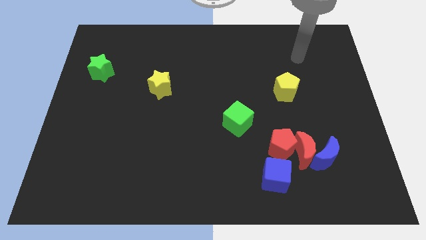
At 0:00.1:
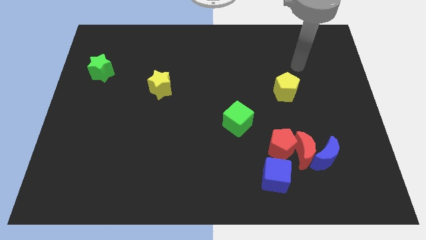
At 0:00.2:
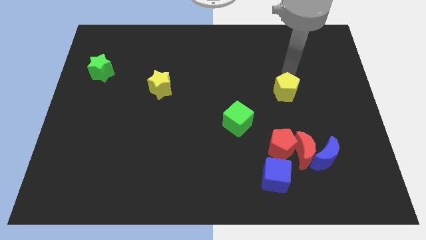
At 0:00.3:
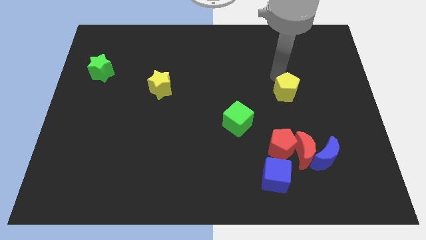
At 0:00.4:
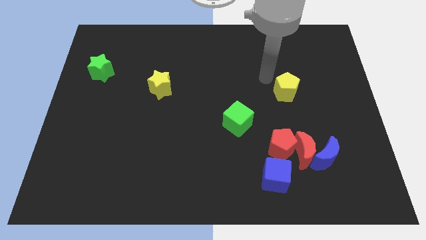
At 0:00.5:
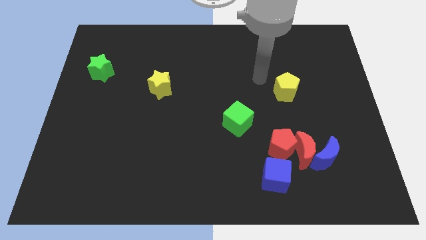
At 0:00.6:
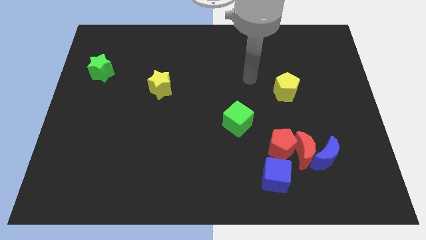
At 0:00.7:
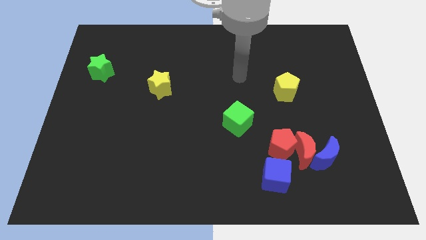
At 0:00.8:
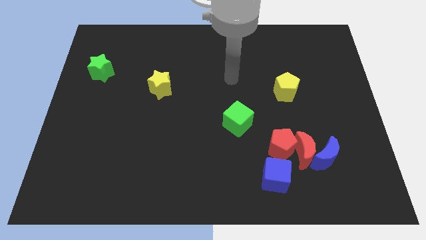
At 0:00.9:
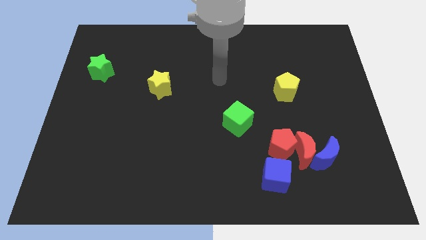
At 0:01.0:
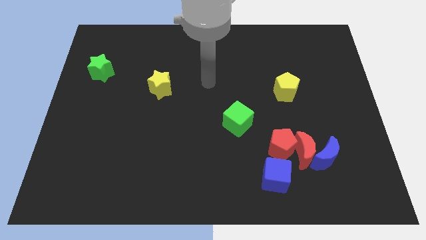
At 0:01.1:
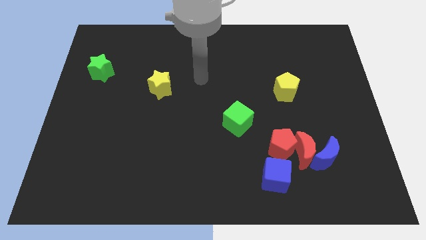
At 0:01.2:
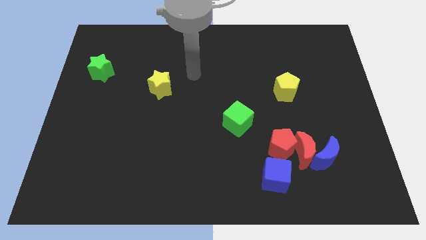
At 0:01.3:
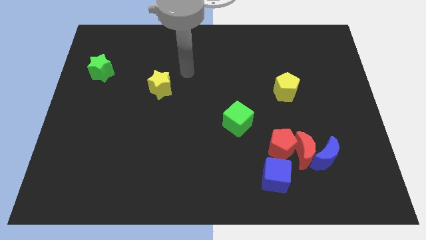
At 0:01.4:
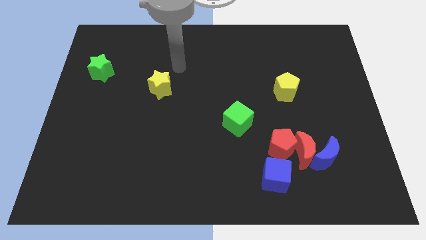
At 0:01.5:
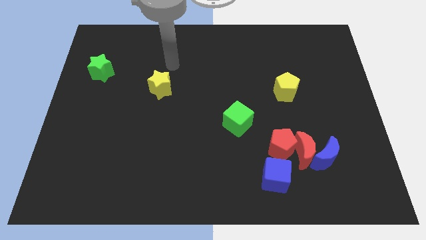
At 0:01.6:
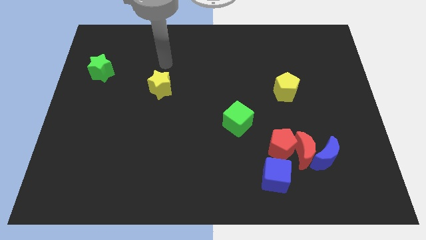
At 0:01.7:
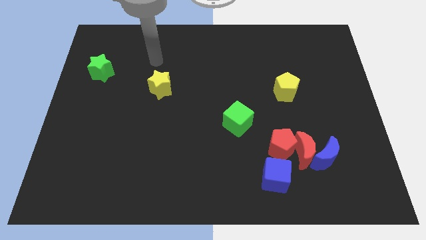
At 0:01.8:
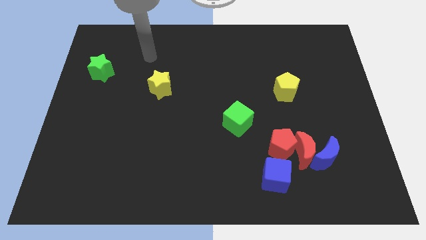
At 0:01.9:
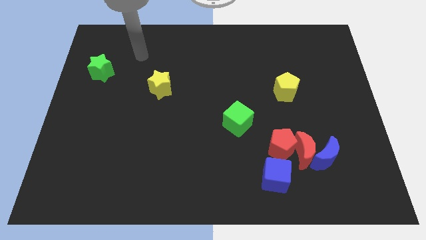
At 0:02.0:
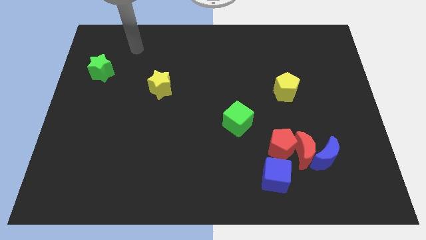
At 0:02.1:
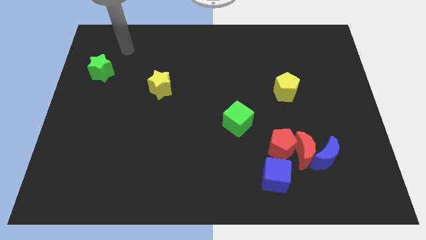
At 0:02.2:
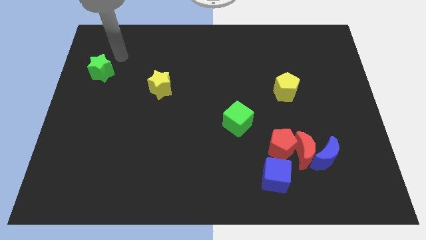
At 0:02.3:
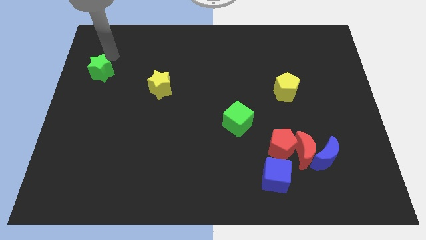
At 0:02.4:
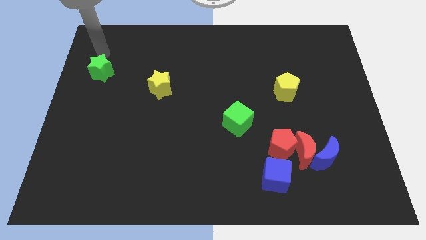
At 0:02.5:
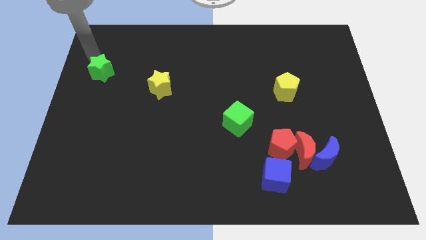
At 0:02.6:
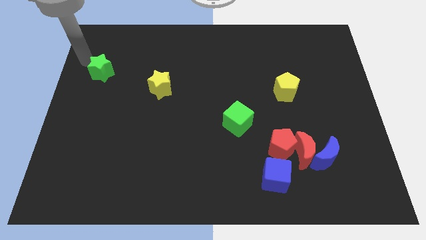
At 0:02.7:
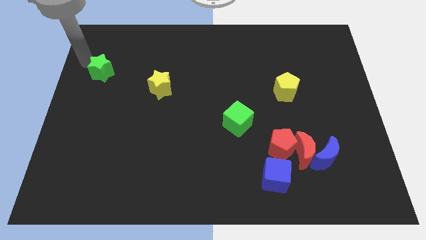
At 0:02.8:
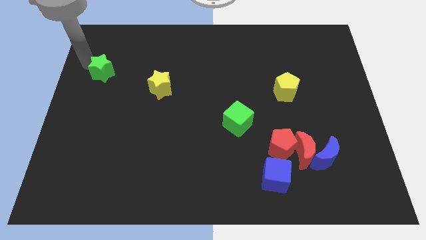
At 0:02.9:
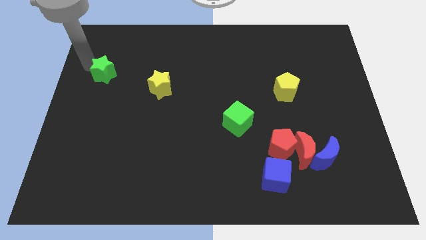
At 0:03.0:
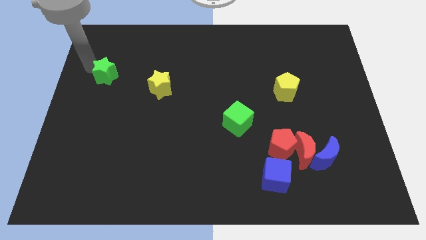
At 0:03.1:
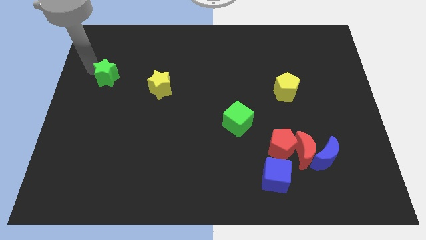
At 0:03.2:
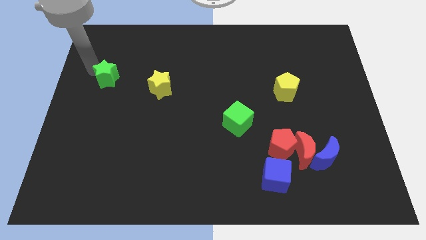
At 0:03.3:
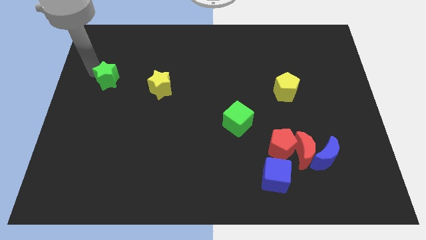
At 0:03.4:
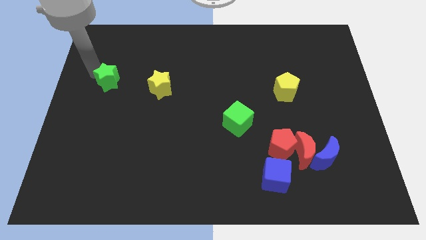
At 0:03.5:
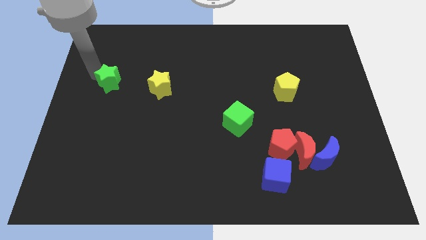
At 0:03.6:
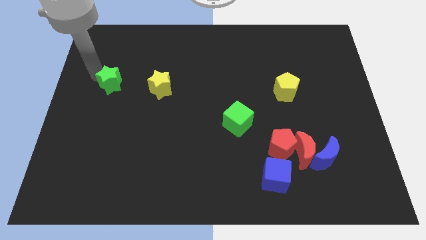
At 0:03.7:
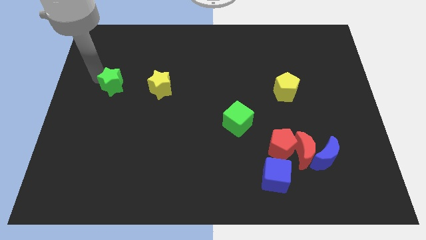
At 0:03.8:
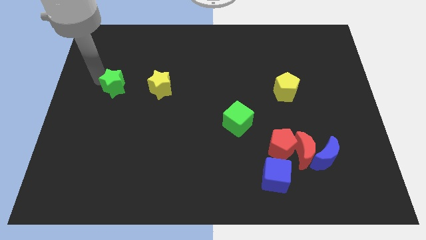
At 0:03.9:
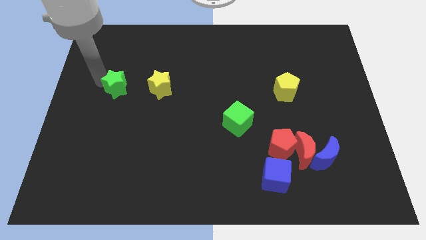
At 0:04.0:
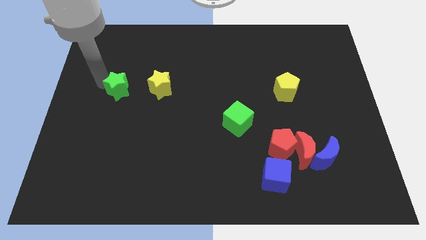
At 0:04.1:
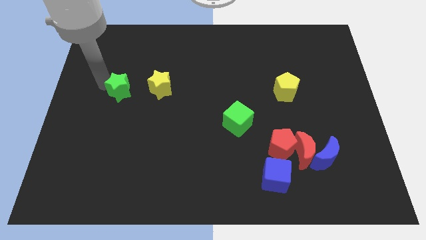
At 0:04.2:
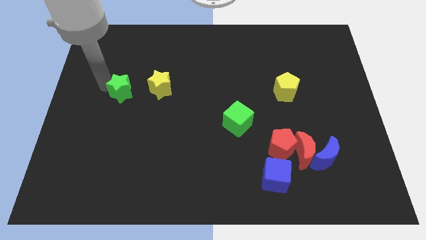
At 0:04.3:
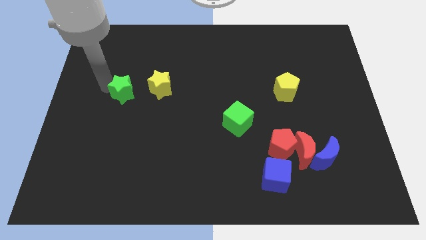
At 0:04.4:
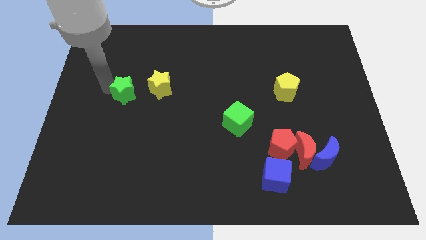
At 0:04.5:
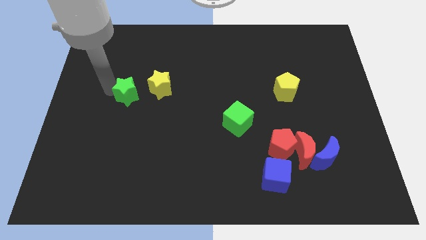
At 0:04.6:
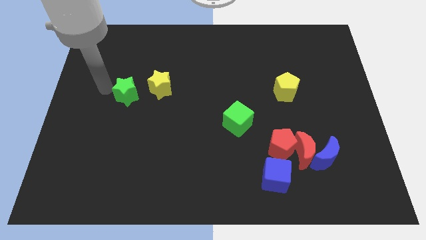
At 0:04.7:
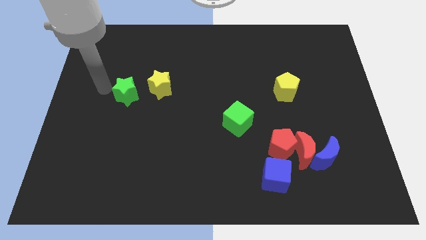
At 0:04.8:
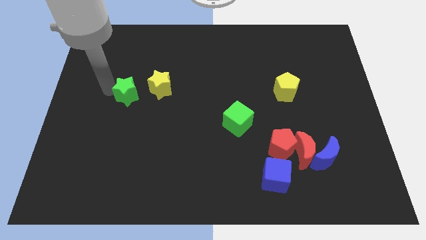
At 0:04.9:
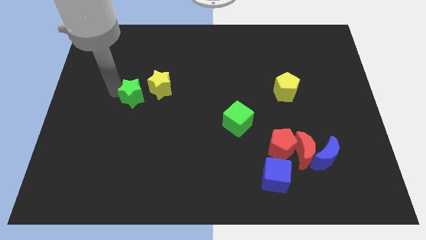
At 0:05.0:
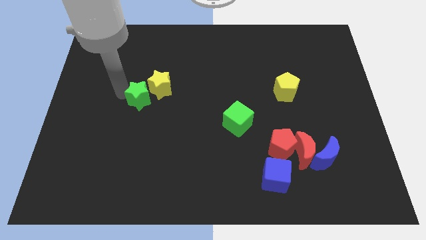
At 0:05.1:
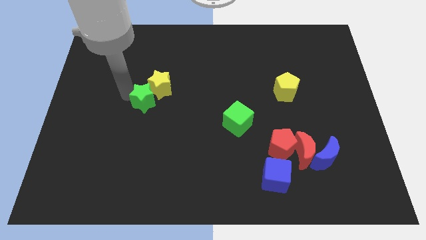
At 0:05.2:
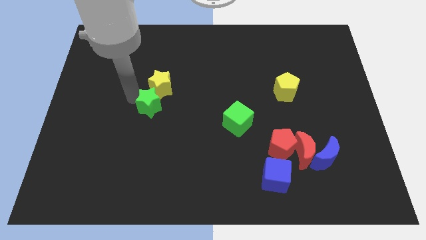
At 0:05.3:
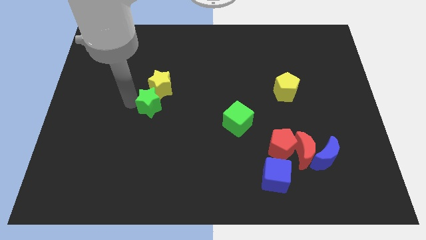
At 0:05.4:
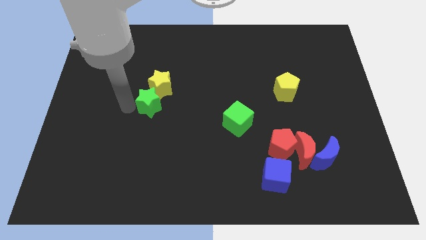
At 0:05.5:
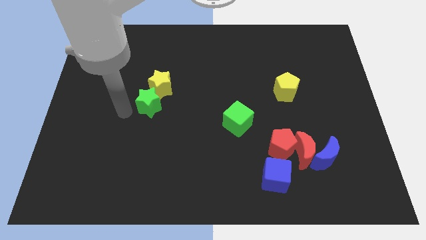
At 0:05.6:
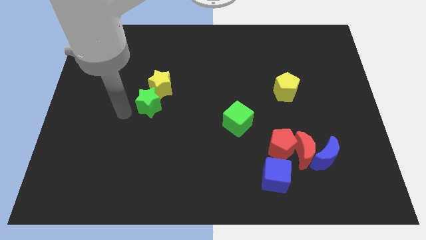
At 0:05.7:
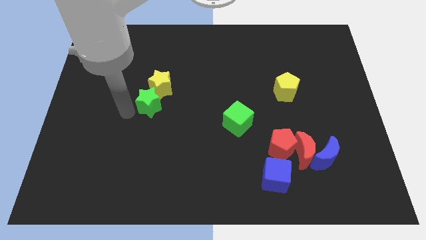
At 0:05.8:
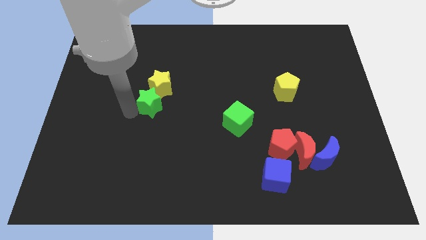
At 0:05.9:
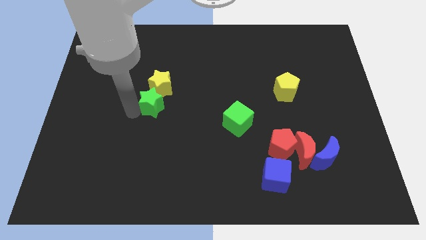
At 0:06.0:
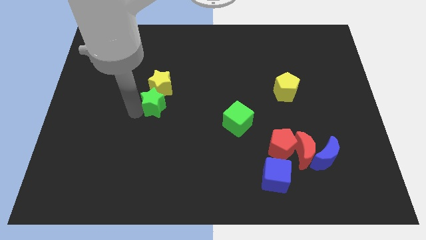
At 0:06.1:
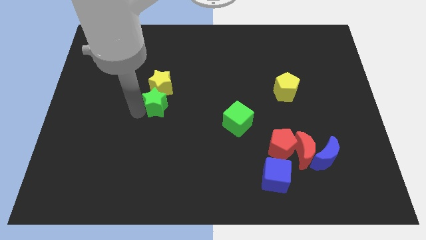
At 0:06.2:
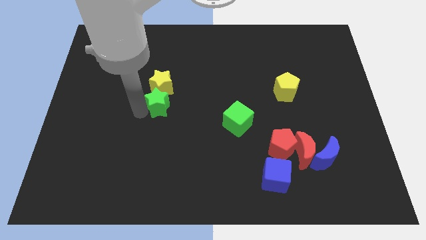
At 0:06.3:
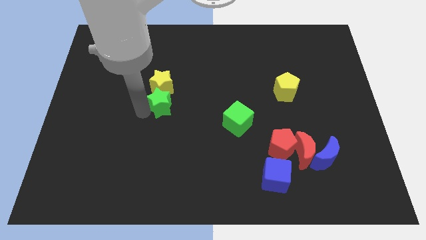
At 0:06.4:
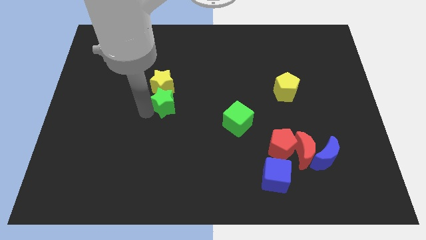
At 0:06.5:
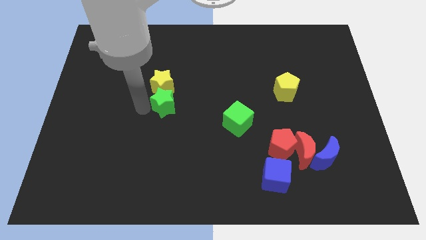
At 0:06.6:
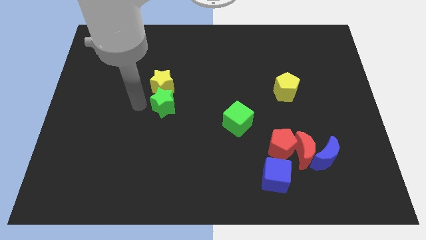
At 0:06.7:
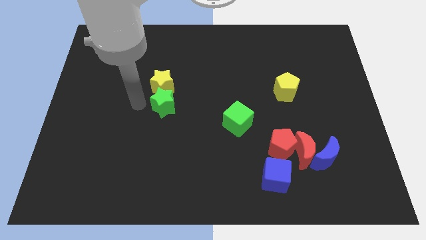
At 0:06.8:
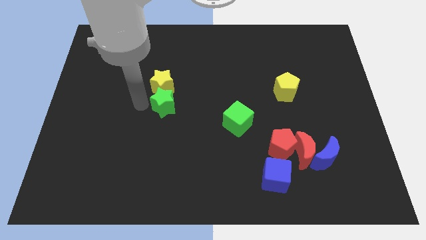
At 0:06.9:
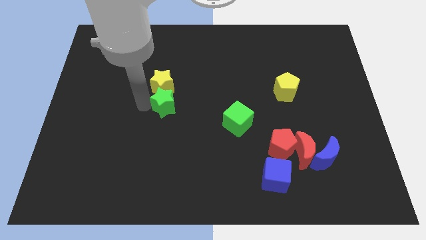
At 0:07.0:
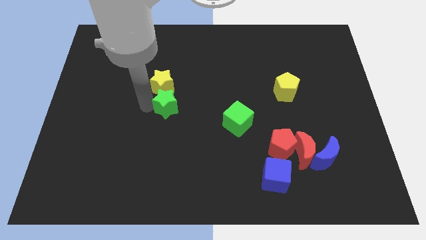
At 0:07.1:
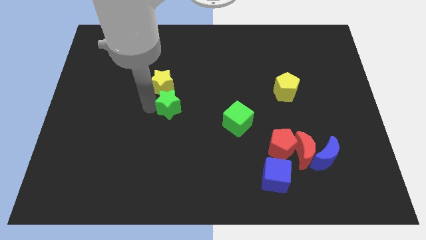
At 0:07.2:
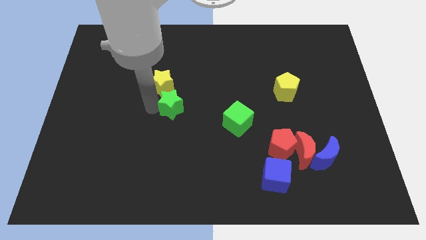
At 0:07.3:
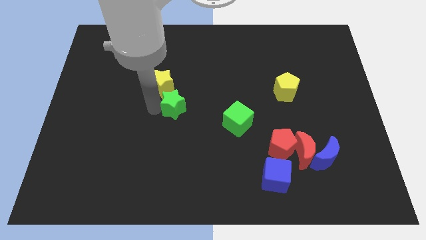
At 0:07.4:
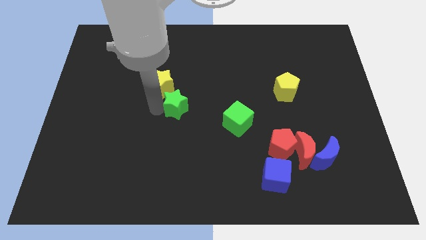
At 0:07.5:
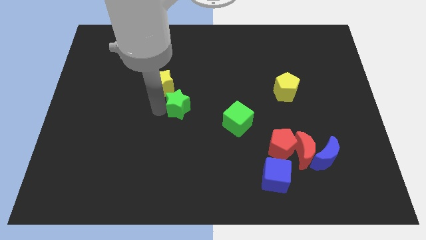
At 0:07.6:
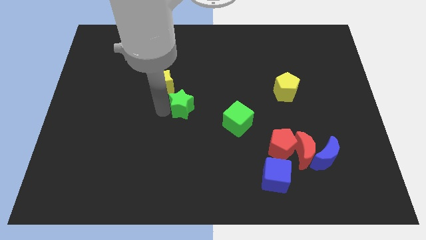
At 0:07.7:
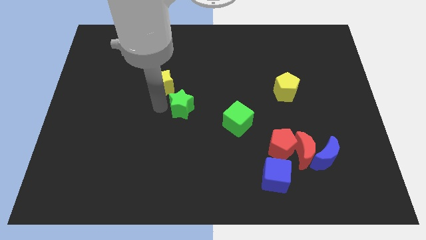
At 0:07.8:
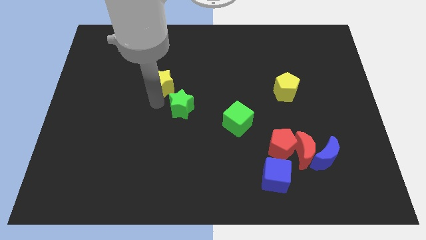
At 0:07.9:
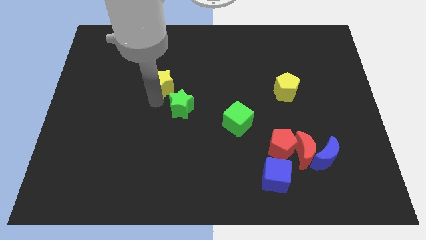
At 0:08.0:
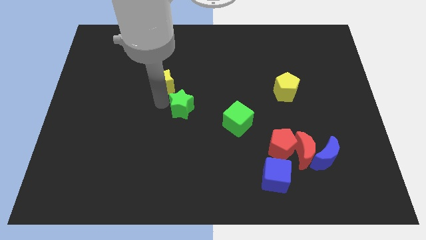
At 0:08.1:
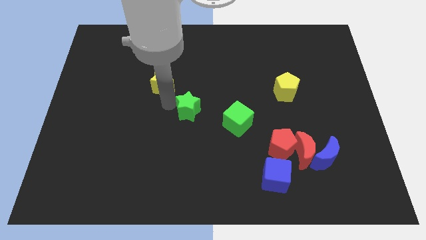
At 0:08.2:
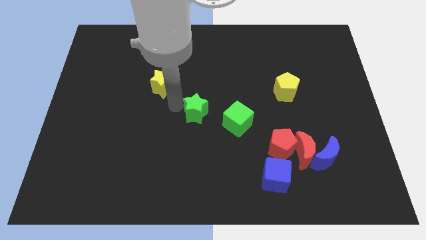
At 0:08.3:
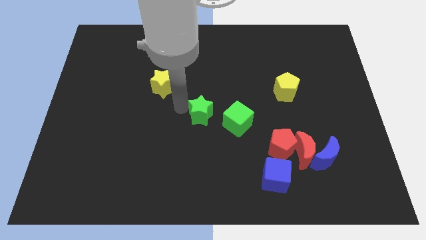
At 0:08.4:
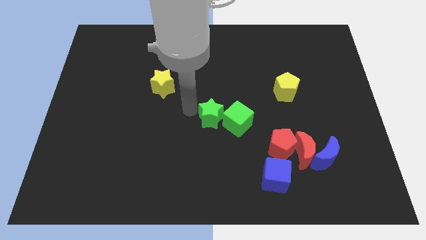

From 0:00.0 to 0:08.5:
move the green star next to the green cube
